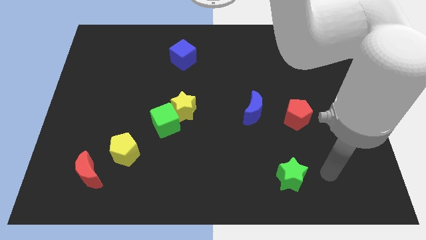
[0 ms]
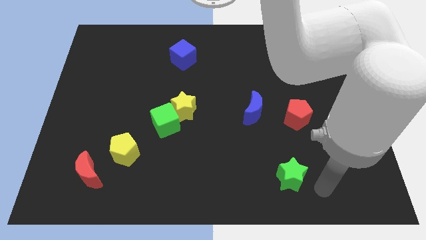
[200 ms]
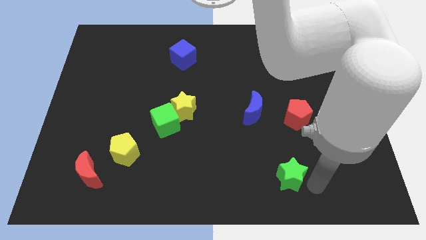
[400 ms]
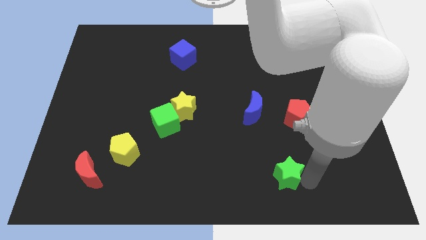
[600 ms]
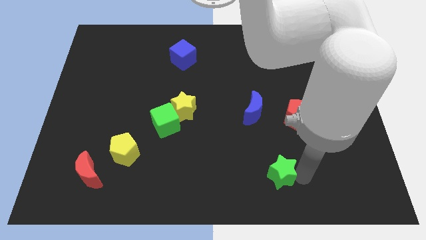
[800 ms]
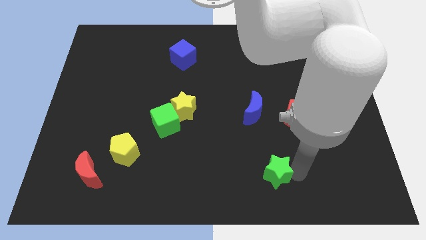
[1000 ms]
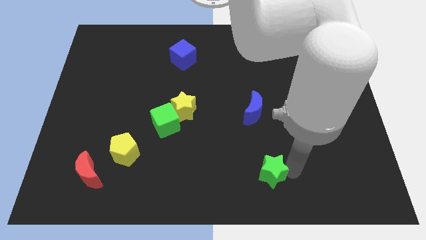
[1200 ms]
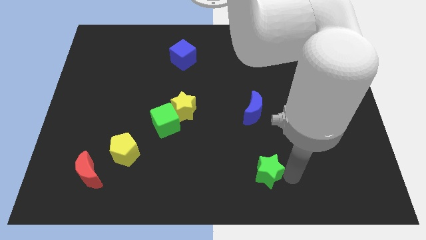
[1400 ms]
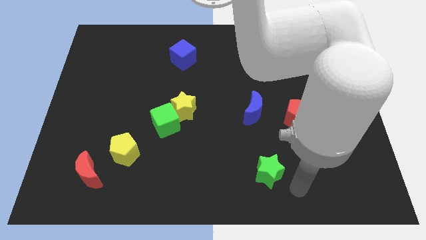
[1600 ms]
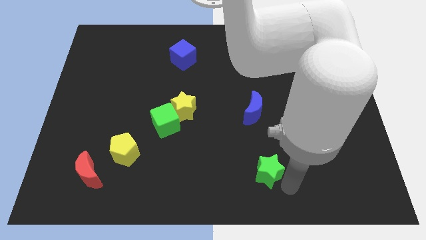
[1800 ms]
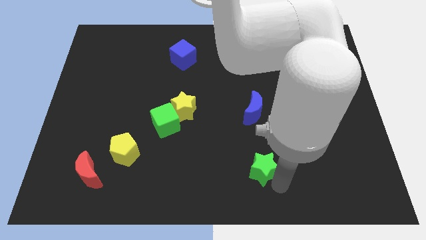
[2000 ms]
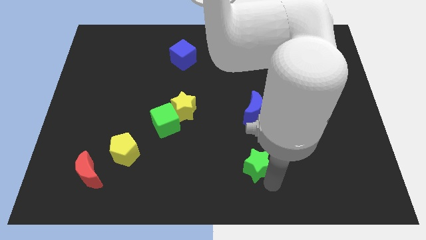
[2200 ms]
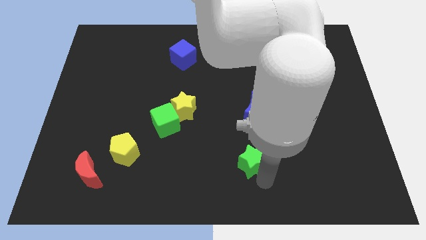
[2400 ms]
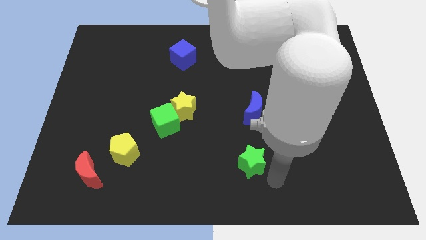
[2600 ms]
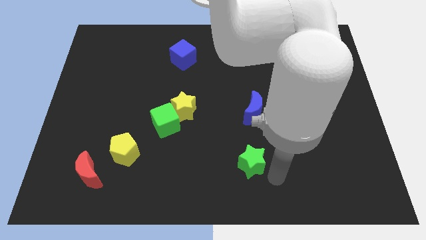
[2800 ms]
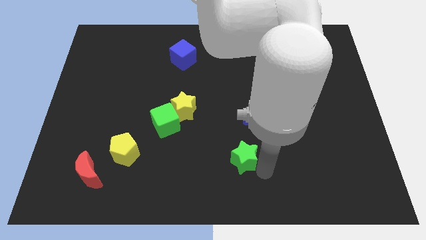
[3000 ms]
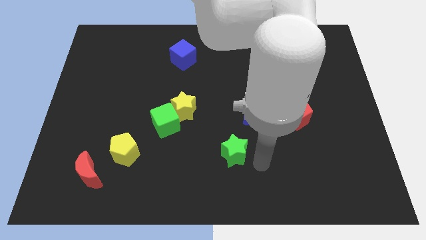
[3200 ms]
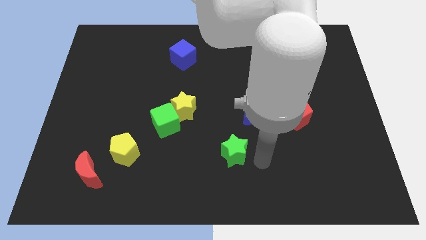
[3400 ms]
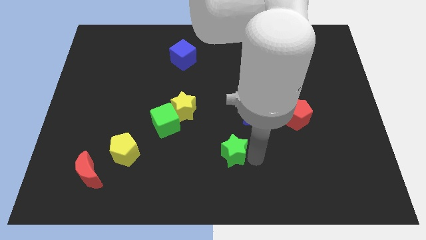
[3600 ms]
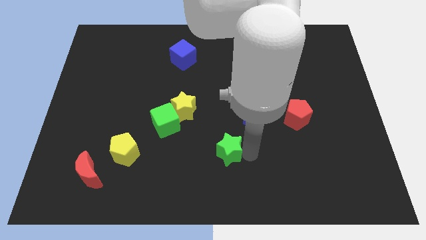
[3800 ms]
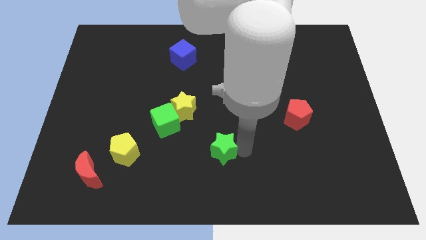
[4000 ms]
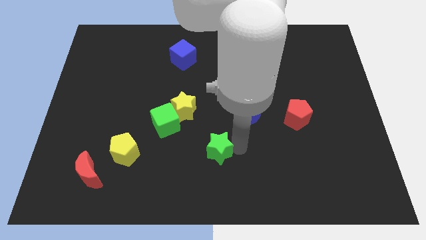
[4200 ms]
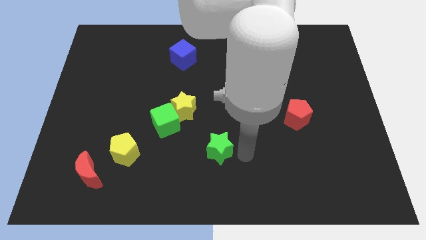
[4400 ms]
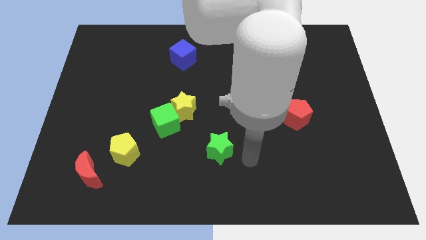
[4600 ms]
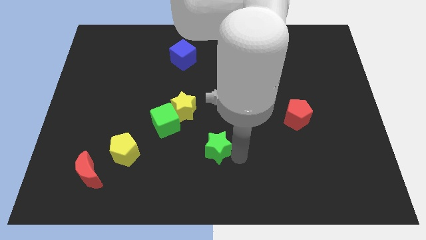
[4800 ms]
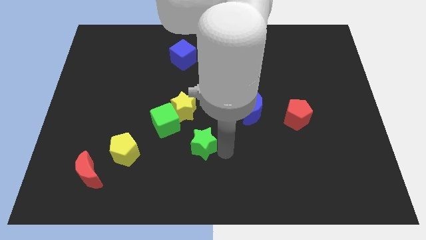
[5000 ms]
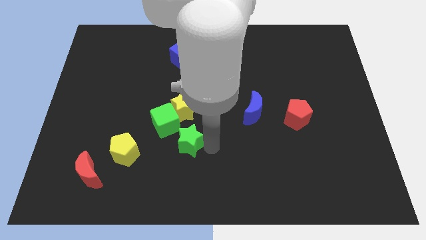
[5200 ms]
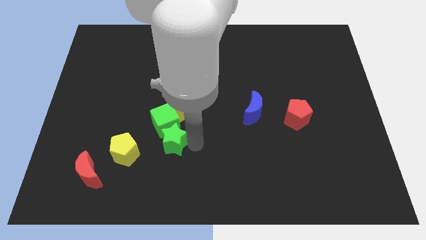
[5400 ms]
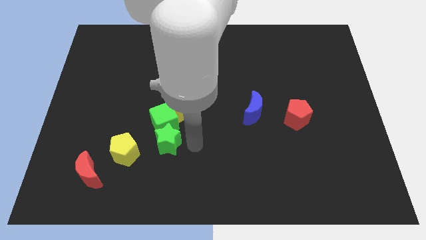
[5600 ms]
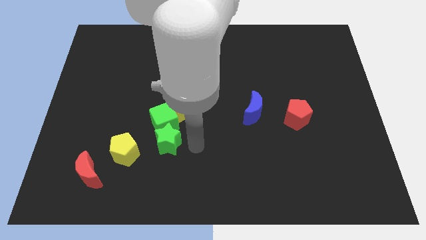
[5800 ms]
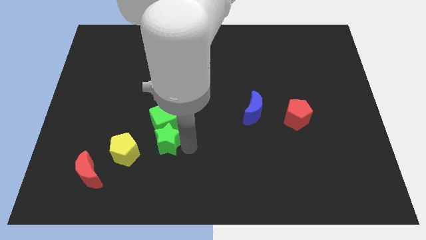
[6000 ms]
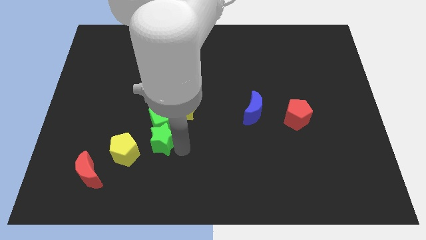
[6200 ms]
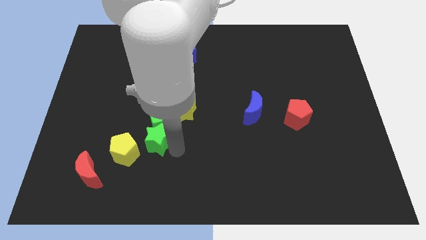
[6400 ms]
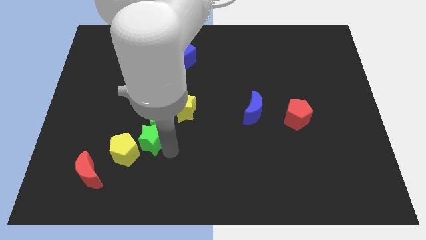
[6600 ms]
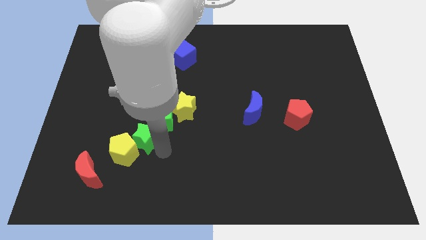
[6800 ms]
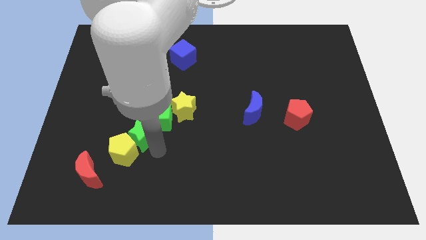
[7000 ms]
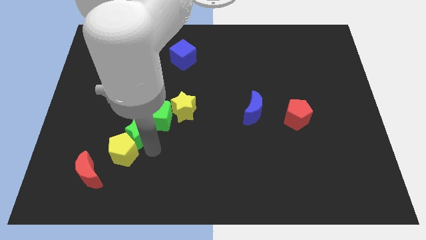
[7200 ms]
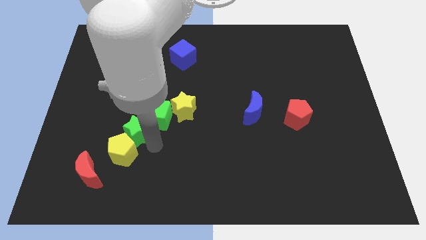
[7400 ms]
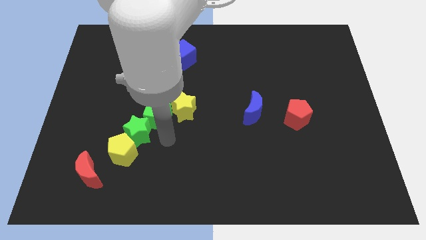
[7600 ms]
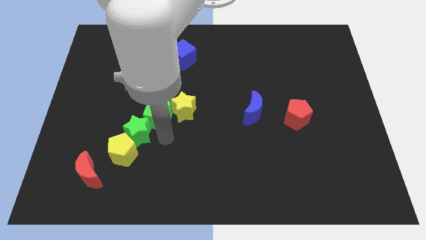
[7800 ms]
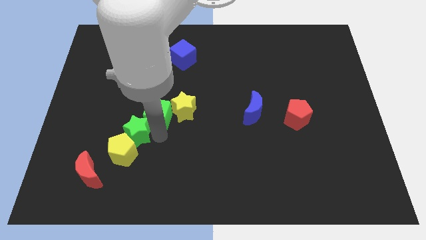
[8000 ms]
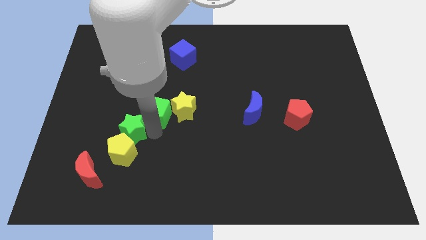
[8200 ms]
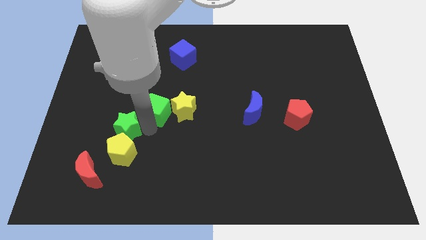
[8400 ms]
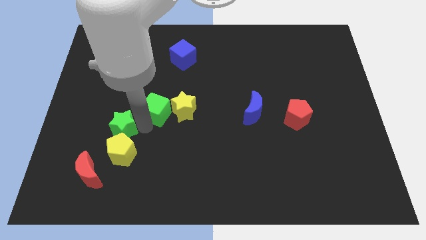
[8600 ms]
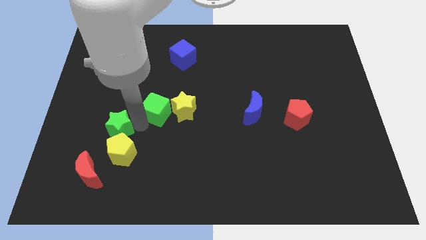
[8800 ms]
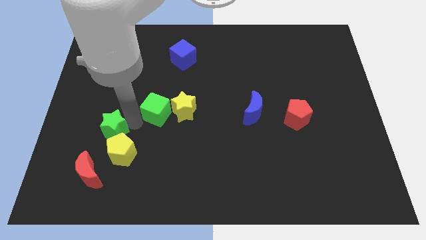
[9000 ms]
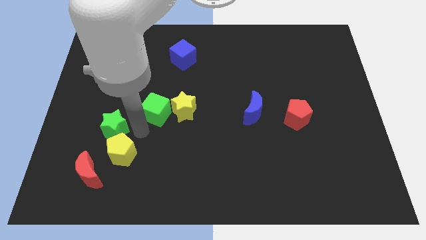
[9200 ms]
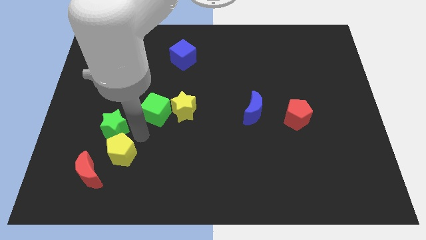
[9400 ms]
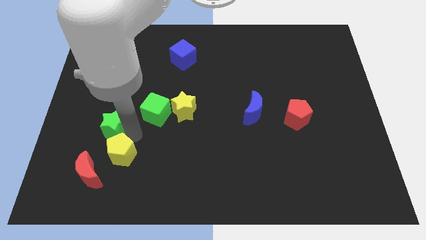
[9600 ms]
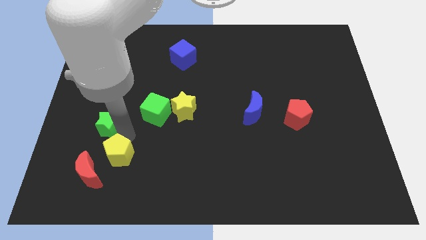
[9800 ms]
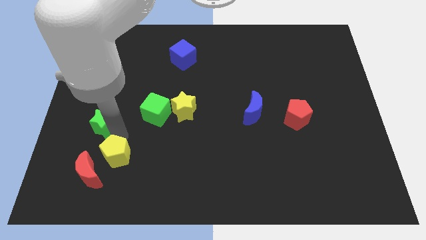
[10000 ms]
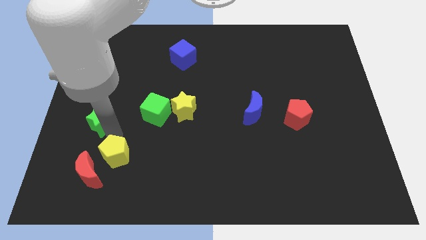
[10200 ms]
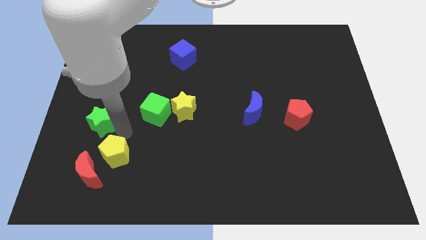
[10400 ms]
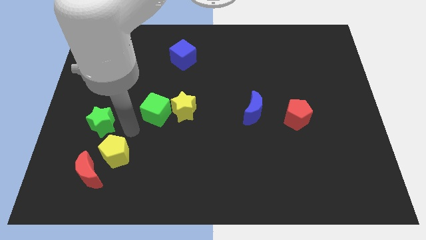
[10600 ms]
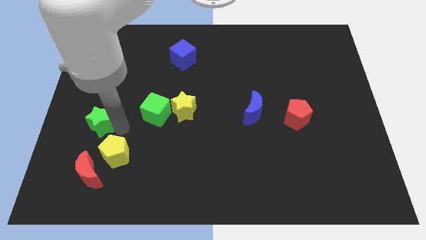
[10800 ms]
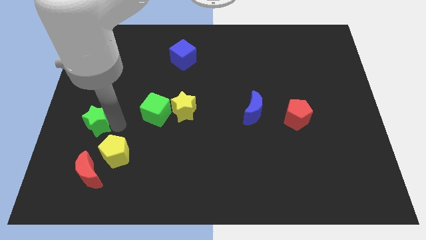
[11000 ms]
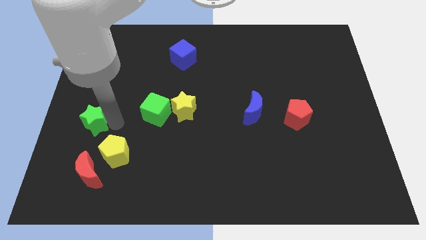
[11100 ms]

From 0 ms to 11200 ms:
put the green star to the center left
